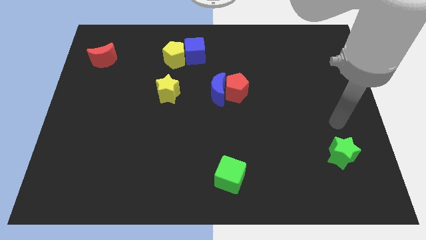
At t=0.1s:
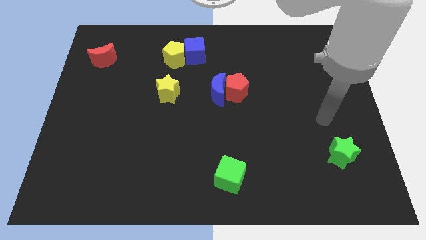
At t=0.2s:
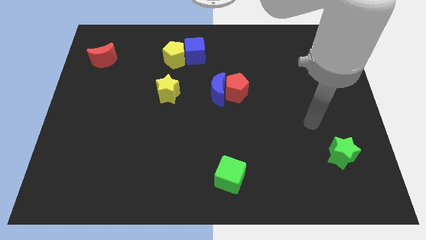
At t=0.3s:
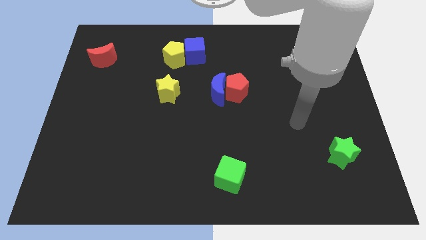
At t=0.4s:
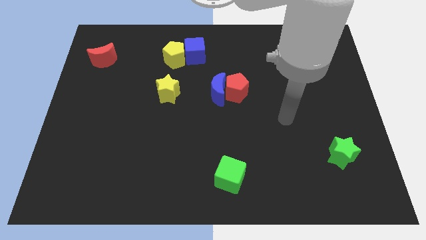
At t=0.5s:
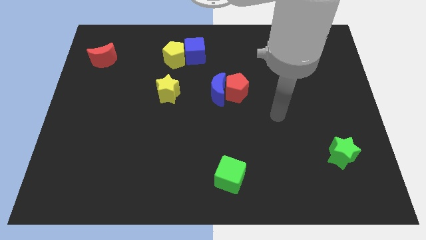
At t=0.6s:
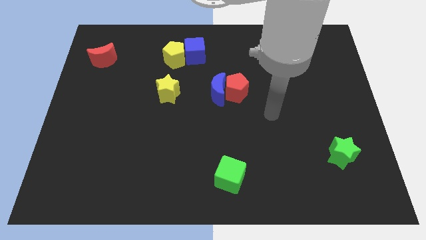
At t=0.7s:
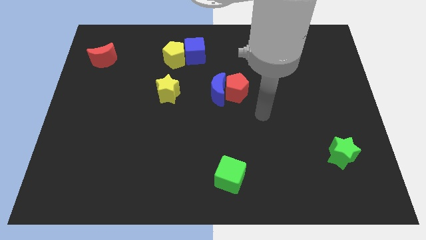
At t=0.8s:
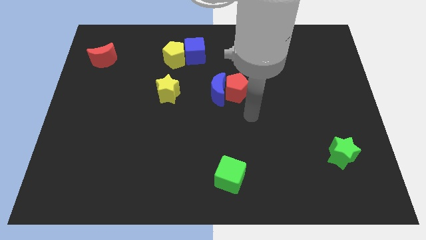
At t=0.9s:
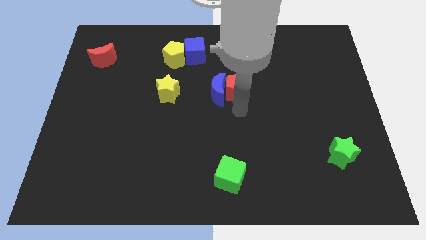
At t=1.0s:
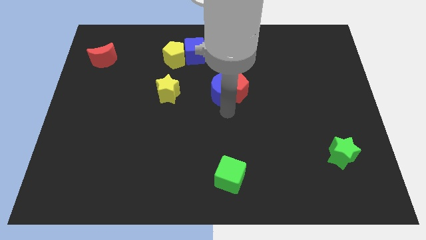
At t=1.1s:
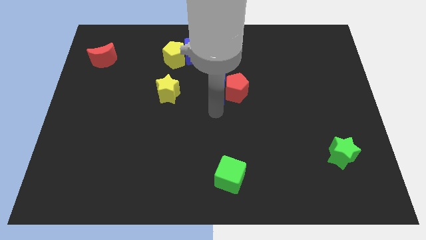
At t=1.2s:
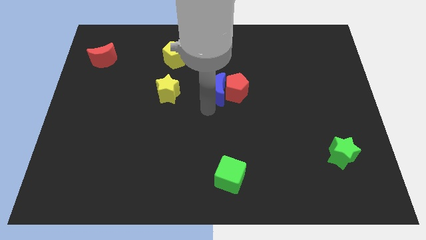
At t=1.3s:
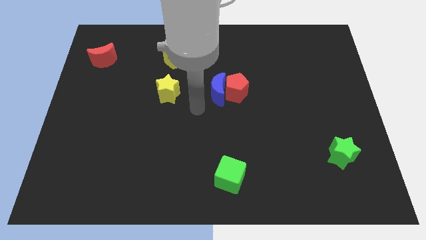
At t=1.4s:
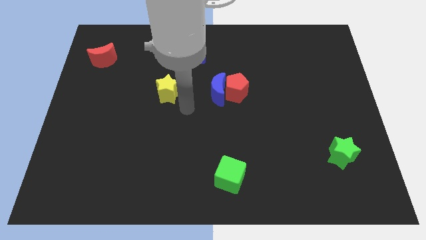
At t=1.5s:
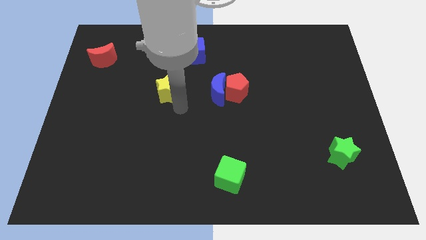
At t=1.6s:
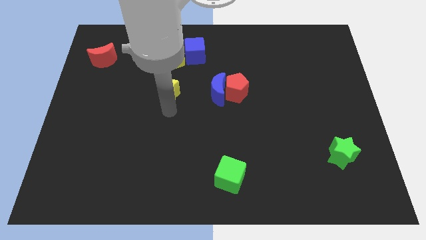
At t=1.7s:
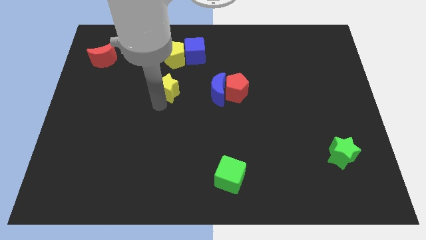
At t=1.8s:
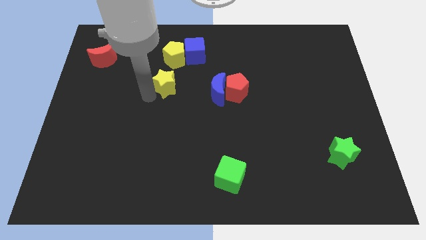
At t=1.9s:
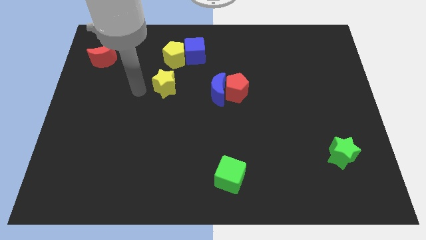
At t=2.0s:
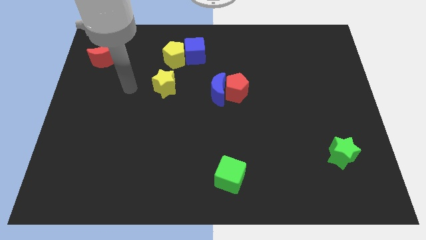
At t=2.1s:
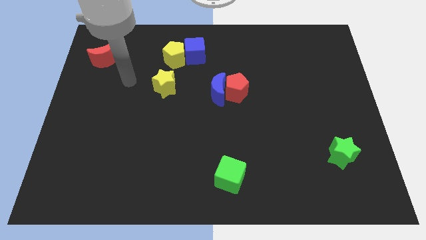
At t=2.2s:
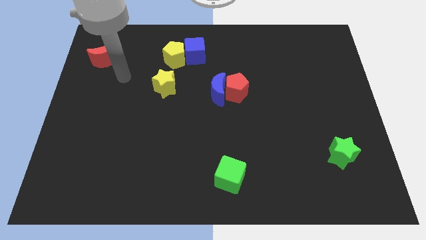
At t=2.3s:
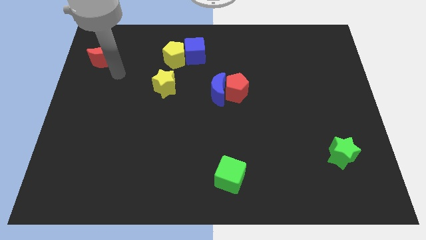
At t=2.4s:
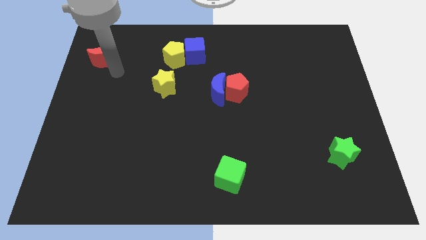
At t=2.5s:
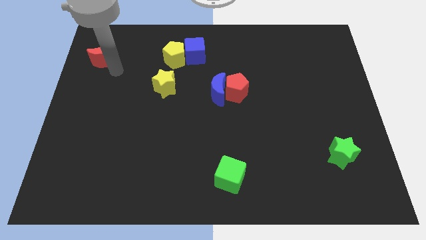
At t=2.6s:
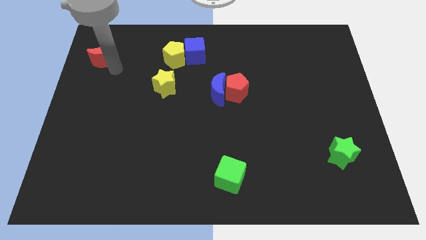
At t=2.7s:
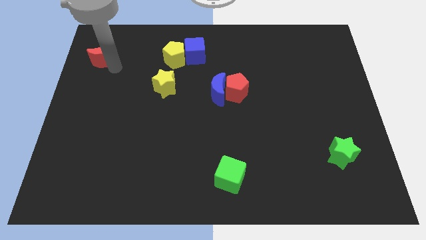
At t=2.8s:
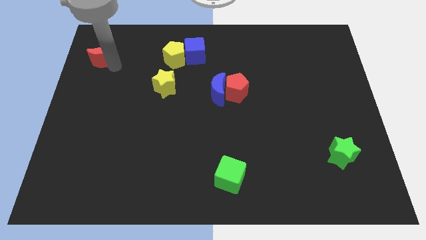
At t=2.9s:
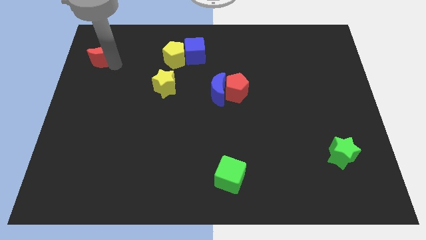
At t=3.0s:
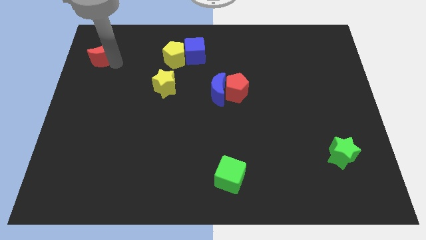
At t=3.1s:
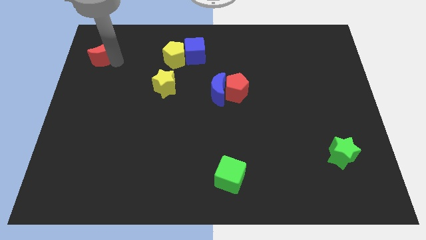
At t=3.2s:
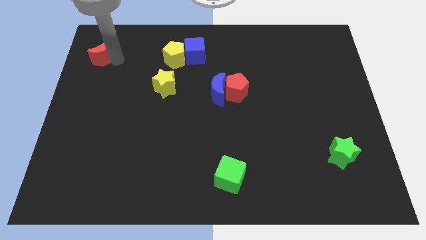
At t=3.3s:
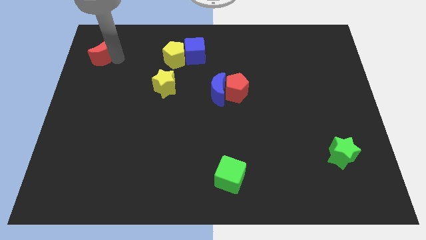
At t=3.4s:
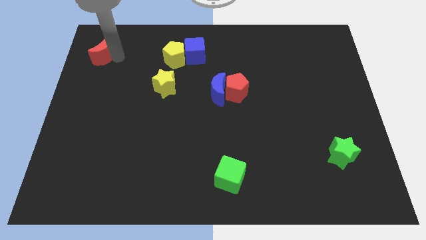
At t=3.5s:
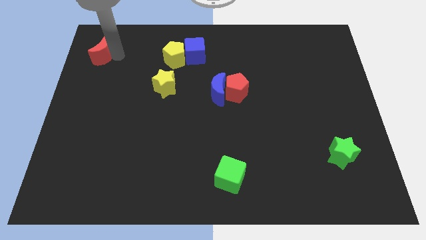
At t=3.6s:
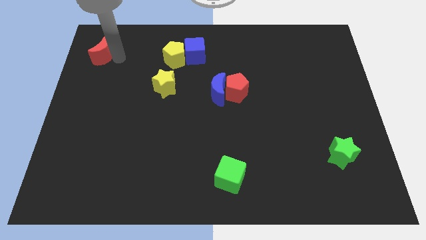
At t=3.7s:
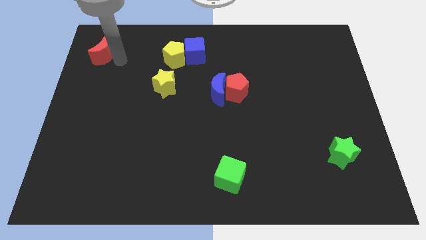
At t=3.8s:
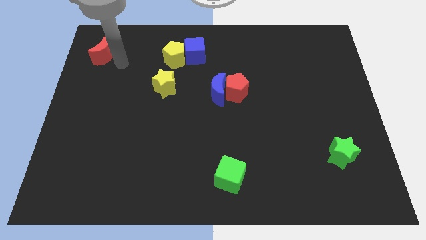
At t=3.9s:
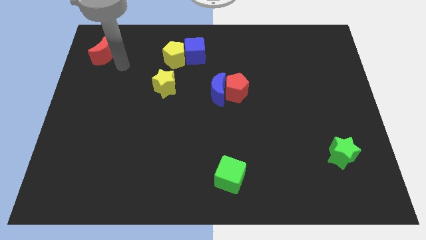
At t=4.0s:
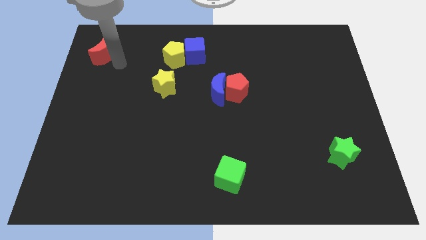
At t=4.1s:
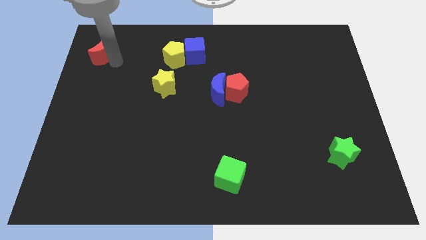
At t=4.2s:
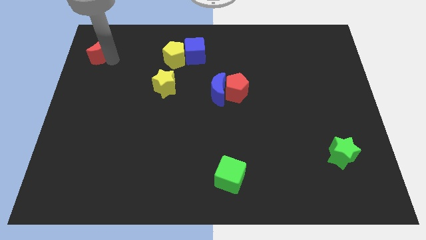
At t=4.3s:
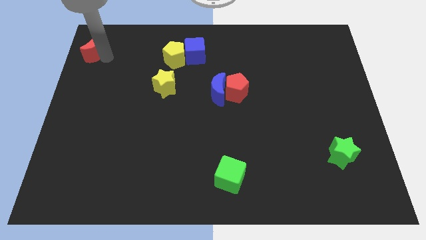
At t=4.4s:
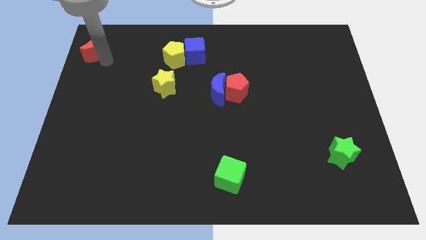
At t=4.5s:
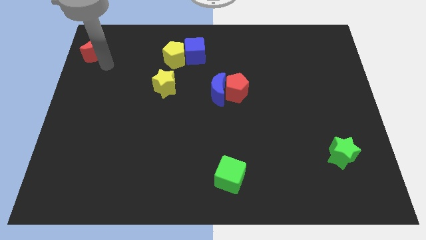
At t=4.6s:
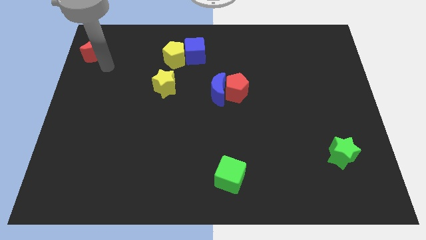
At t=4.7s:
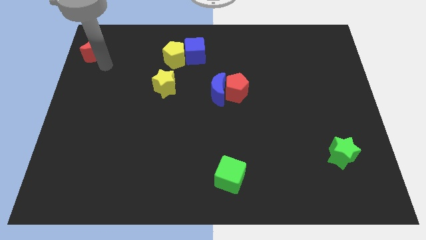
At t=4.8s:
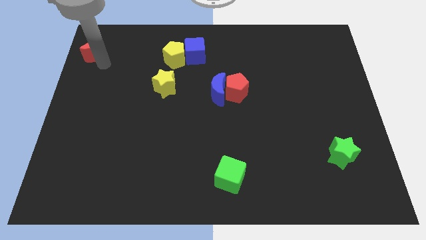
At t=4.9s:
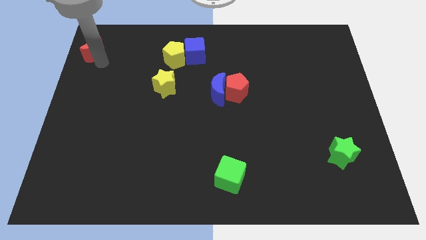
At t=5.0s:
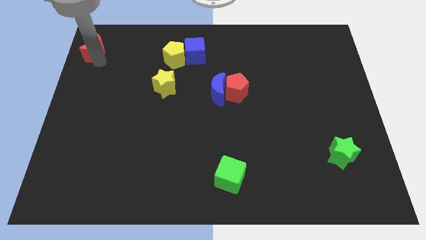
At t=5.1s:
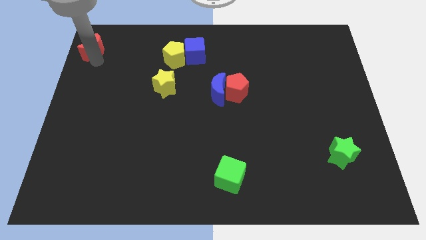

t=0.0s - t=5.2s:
put the red moon to the top left corner

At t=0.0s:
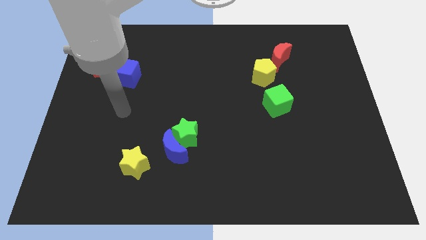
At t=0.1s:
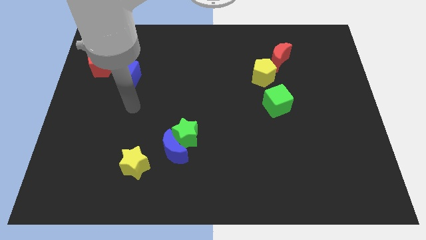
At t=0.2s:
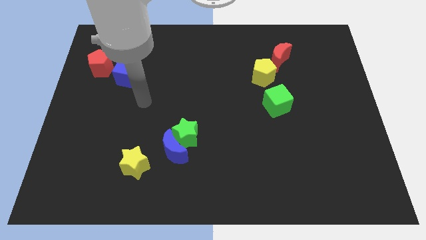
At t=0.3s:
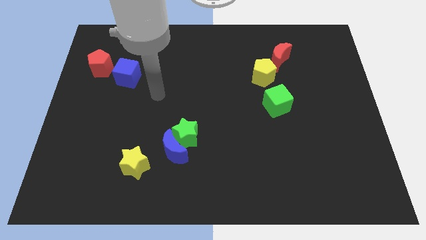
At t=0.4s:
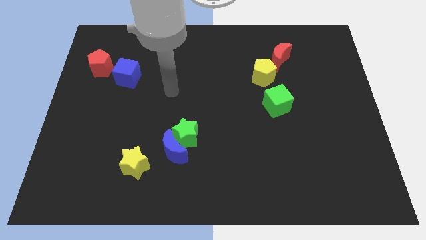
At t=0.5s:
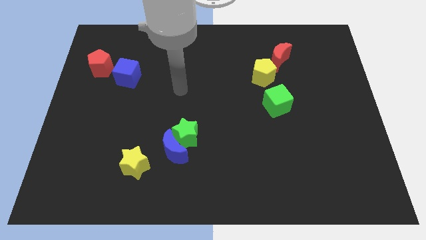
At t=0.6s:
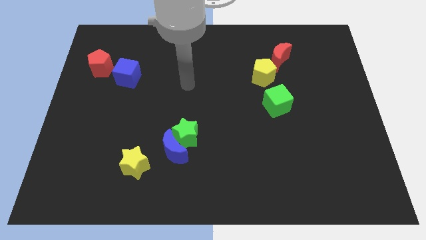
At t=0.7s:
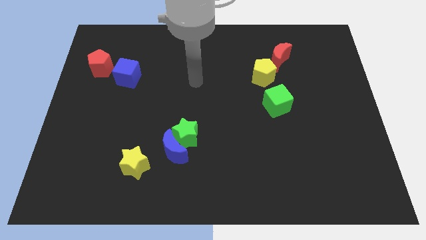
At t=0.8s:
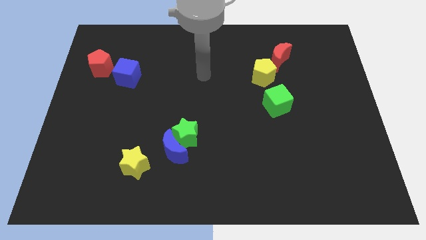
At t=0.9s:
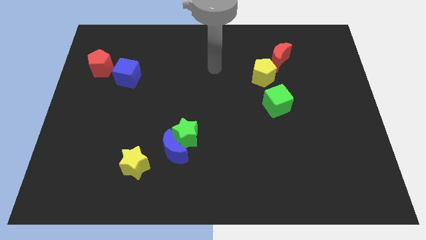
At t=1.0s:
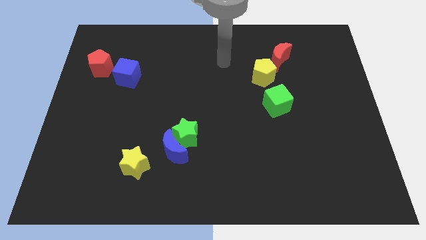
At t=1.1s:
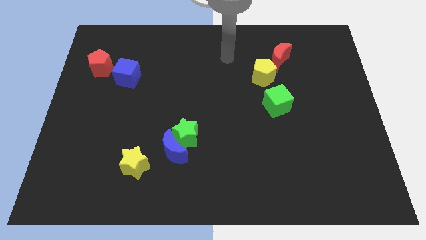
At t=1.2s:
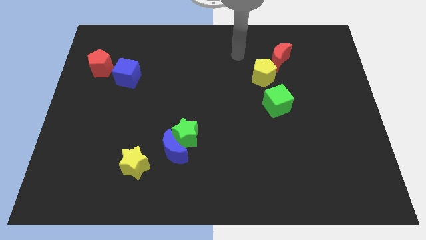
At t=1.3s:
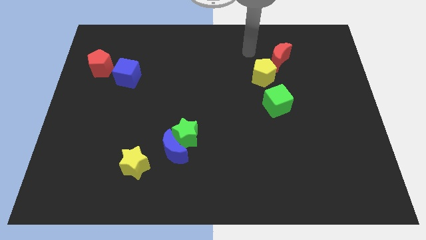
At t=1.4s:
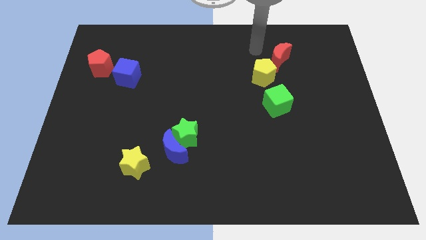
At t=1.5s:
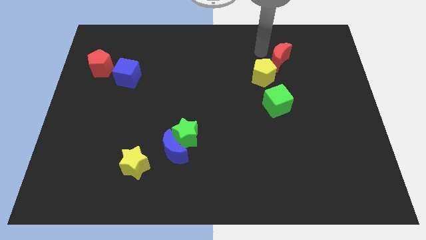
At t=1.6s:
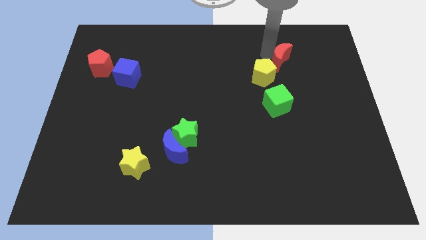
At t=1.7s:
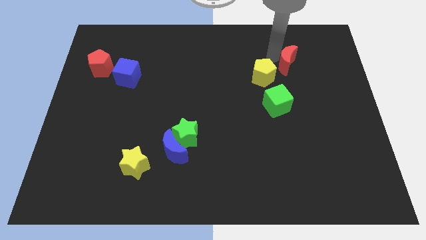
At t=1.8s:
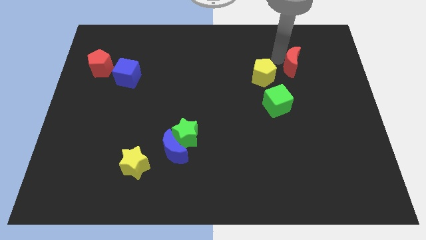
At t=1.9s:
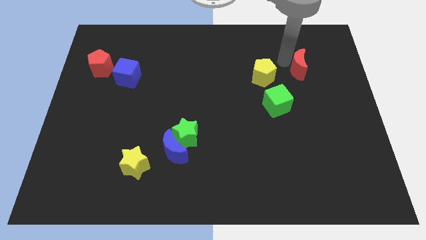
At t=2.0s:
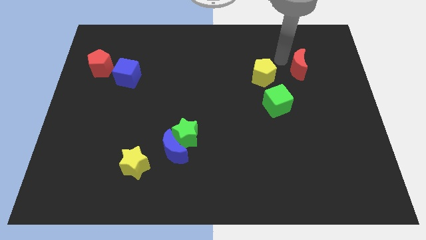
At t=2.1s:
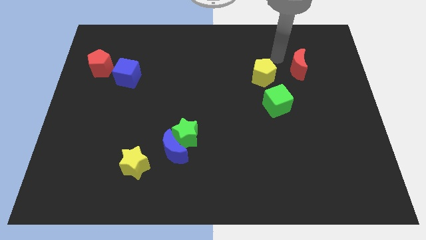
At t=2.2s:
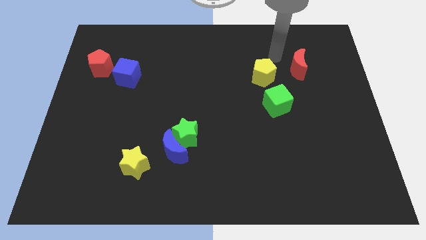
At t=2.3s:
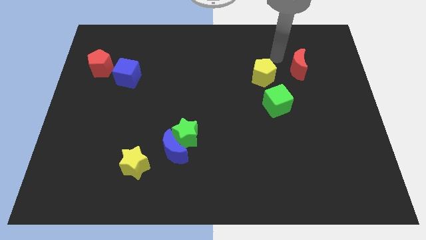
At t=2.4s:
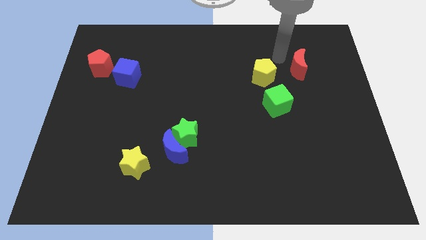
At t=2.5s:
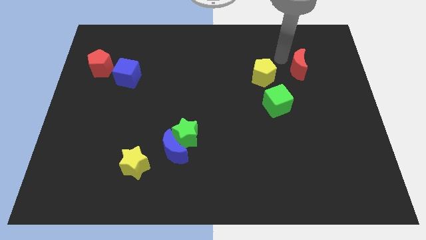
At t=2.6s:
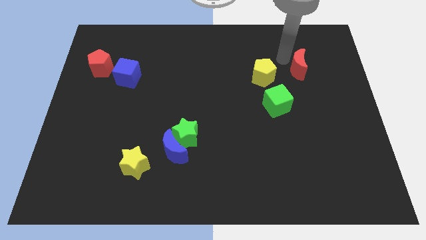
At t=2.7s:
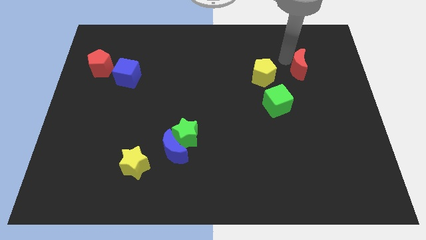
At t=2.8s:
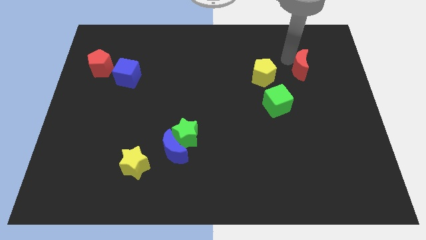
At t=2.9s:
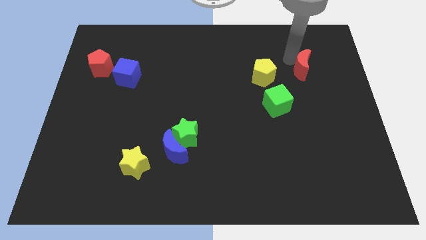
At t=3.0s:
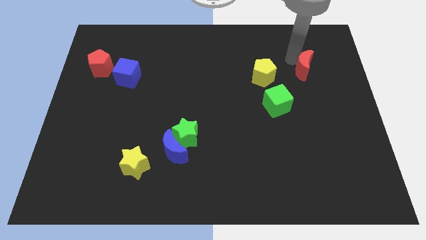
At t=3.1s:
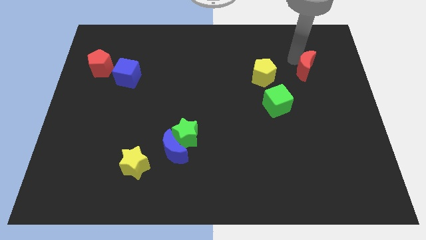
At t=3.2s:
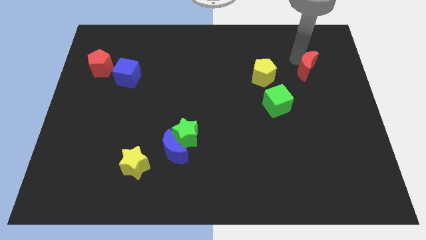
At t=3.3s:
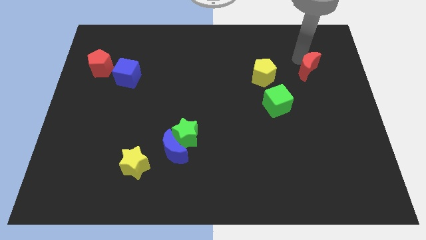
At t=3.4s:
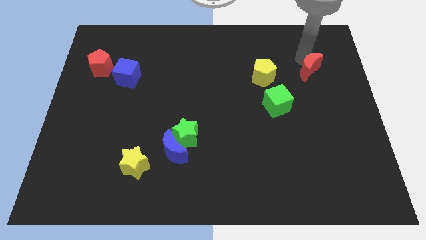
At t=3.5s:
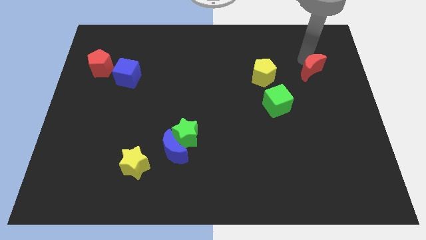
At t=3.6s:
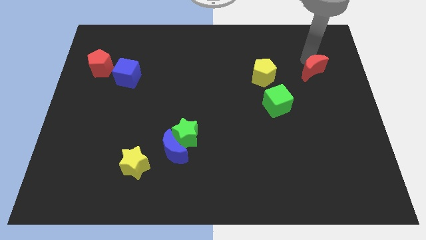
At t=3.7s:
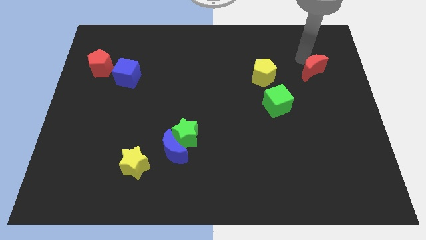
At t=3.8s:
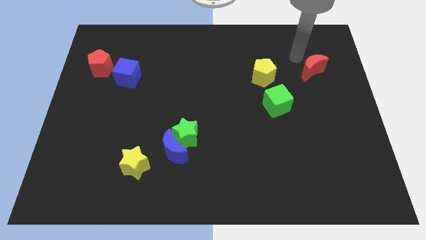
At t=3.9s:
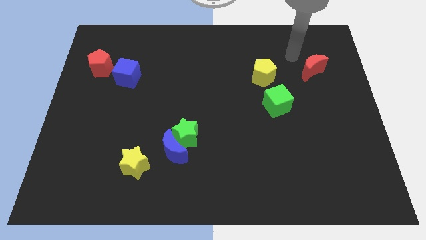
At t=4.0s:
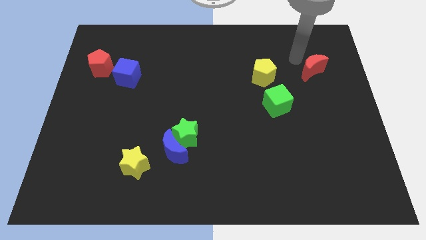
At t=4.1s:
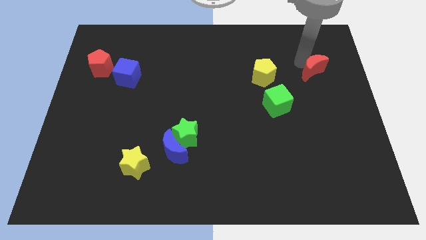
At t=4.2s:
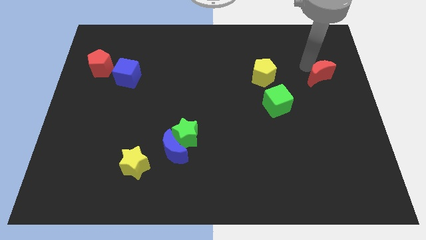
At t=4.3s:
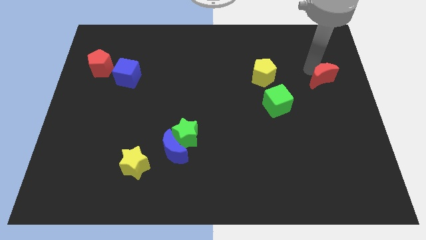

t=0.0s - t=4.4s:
slide the red moon to the right side
